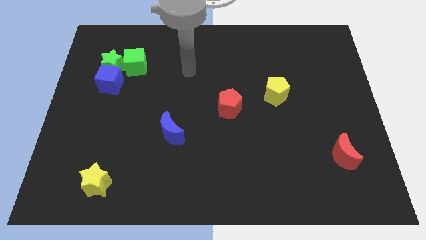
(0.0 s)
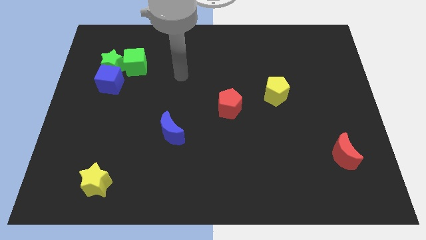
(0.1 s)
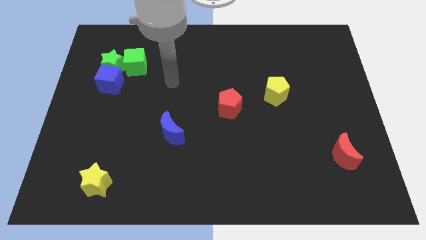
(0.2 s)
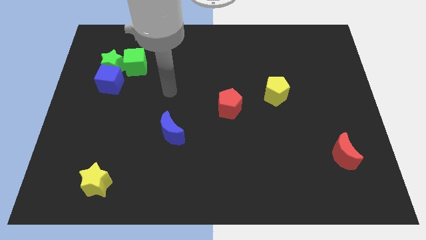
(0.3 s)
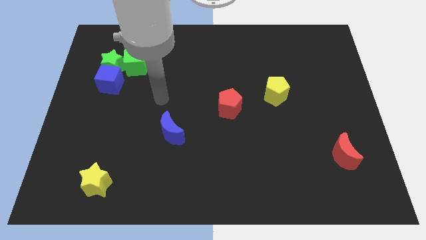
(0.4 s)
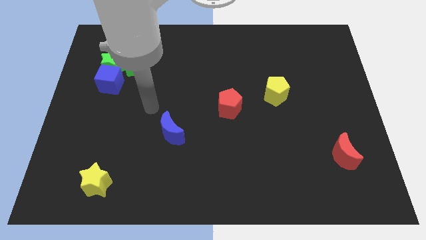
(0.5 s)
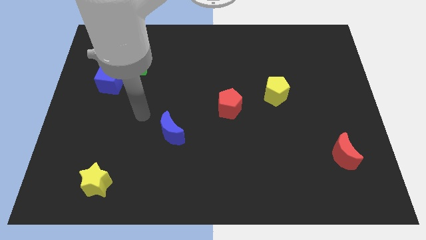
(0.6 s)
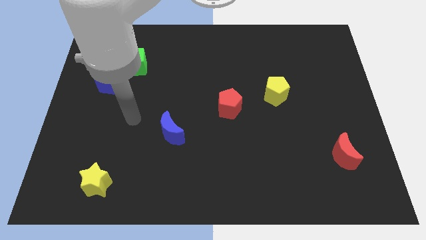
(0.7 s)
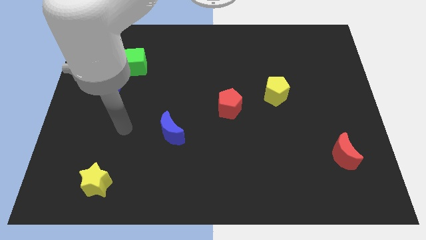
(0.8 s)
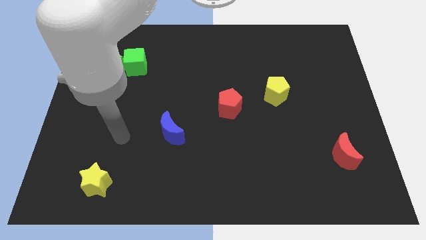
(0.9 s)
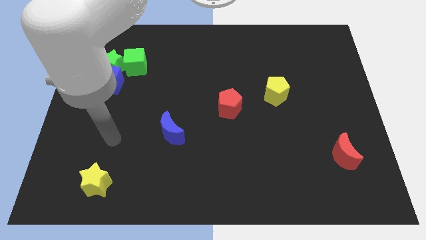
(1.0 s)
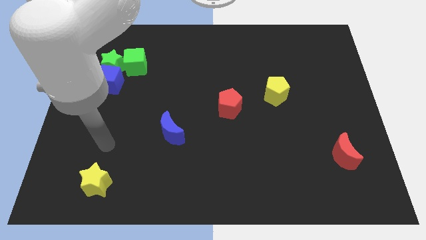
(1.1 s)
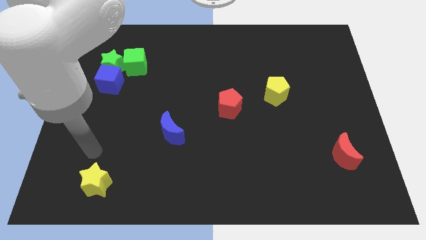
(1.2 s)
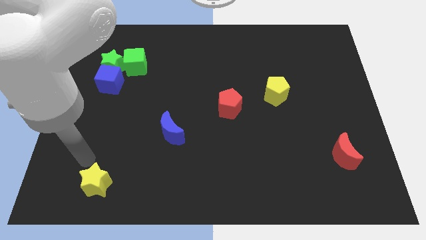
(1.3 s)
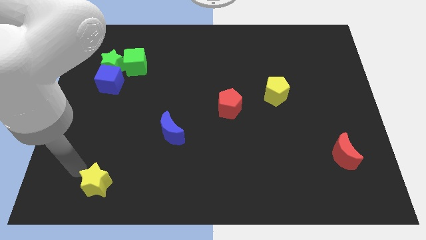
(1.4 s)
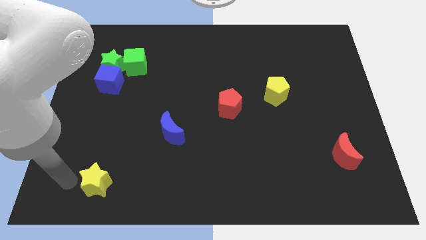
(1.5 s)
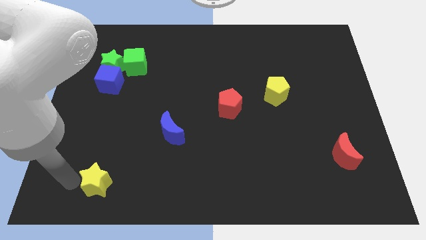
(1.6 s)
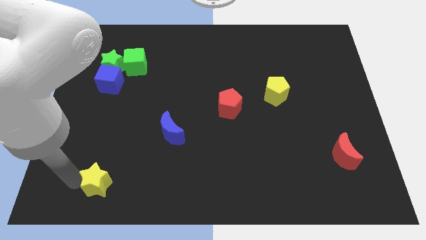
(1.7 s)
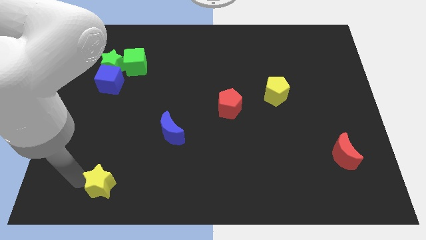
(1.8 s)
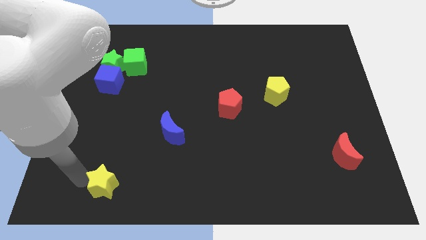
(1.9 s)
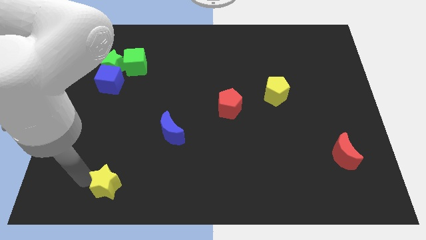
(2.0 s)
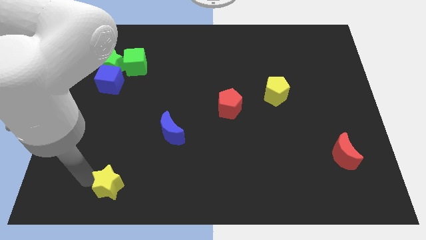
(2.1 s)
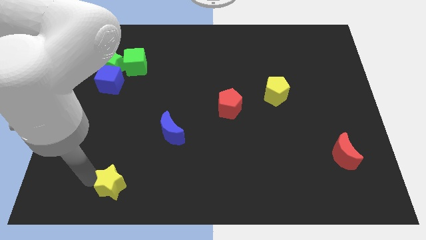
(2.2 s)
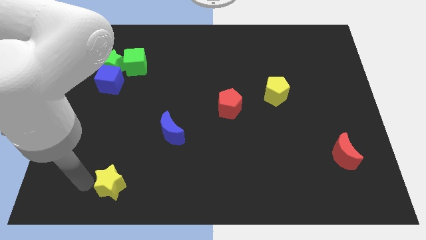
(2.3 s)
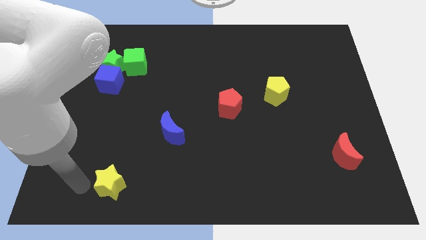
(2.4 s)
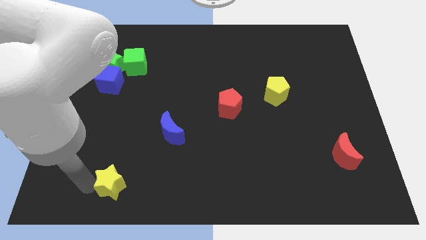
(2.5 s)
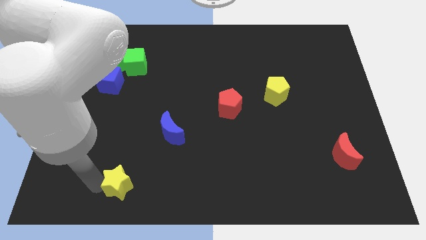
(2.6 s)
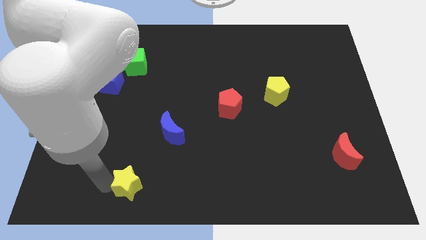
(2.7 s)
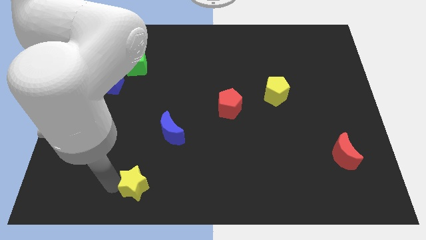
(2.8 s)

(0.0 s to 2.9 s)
slightly slide the yellow star right

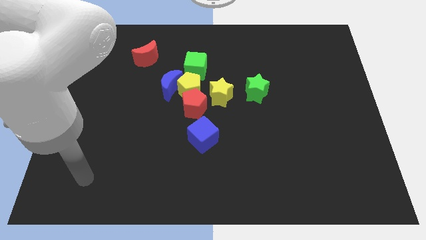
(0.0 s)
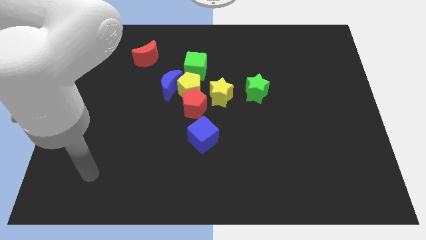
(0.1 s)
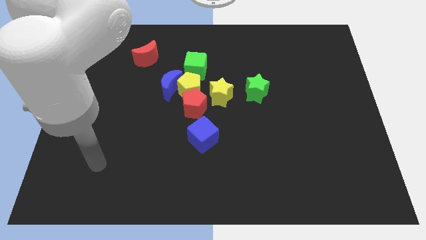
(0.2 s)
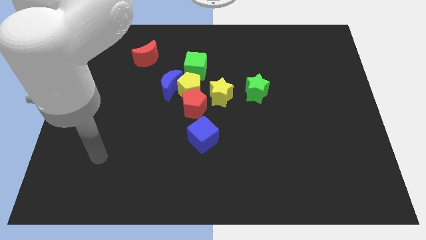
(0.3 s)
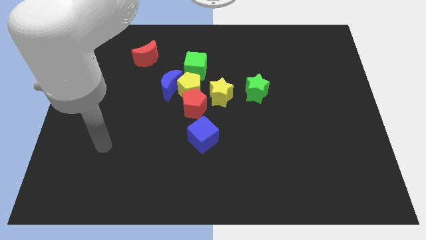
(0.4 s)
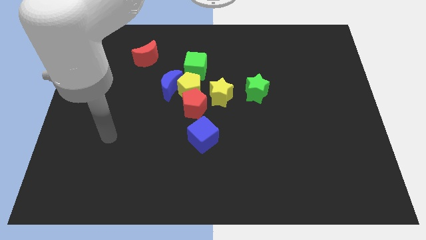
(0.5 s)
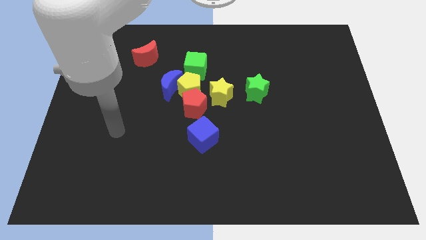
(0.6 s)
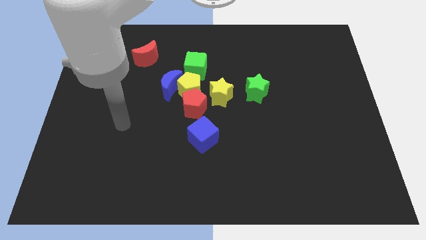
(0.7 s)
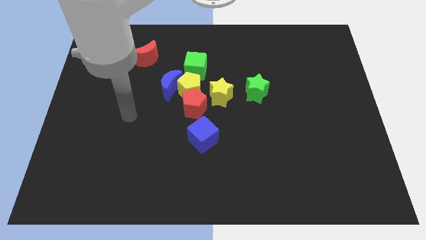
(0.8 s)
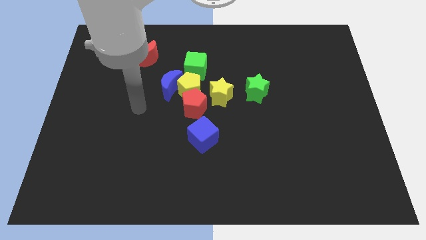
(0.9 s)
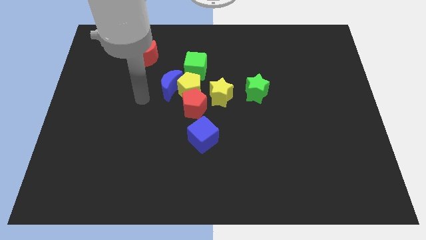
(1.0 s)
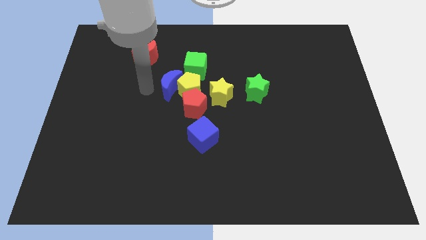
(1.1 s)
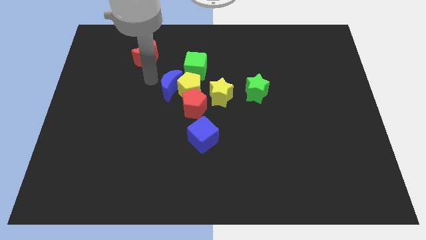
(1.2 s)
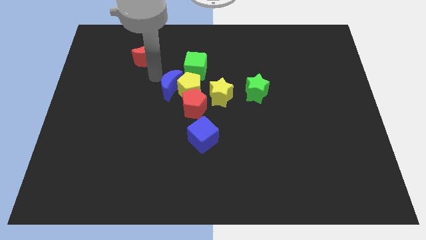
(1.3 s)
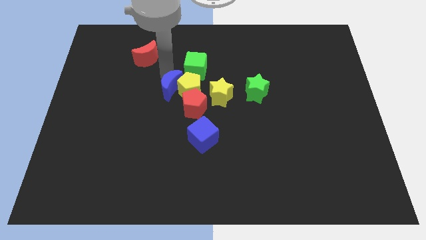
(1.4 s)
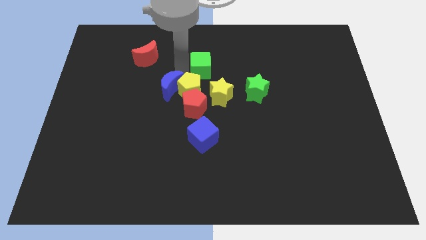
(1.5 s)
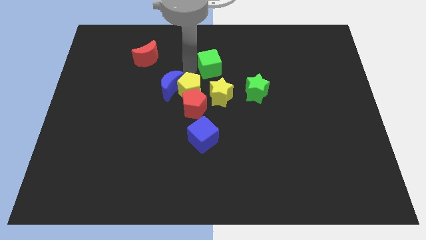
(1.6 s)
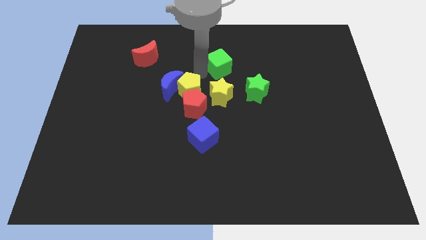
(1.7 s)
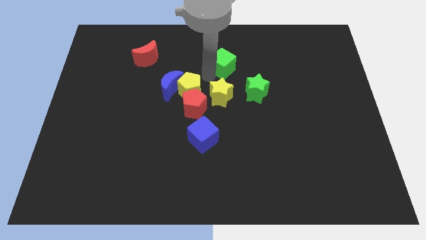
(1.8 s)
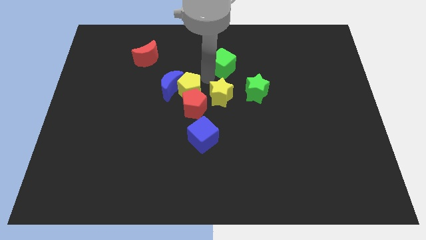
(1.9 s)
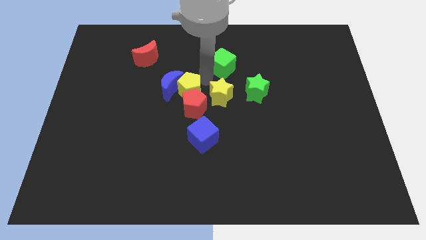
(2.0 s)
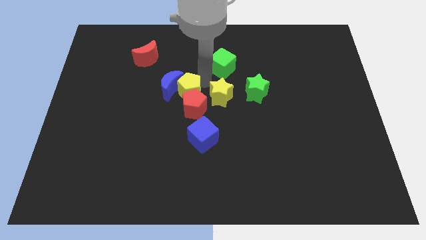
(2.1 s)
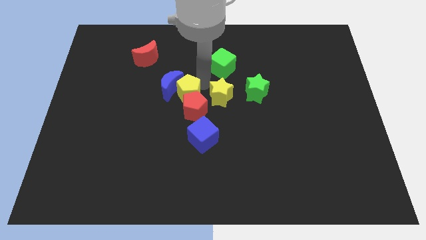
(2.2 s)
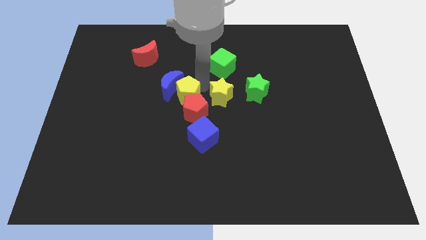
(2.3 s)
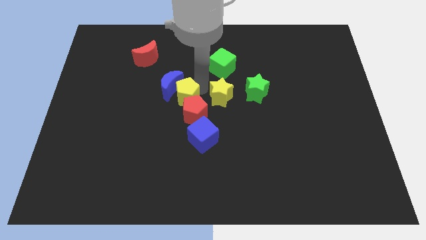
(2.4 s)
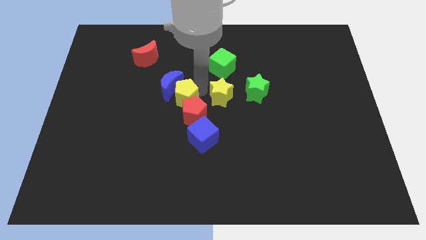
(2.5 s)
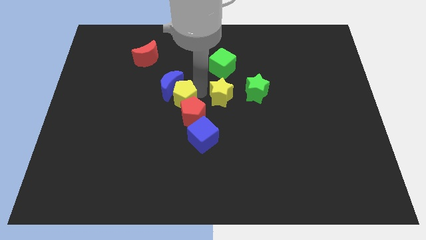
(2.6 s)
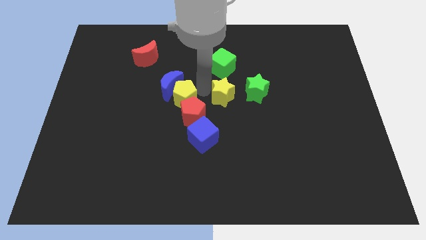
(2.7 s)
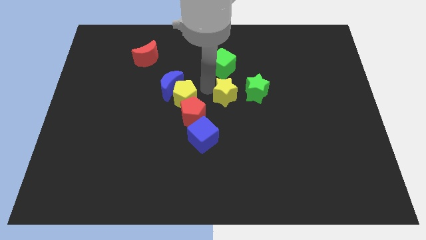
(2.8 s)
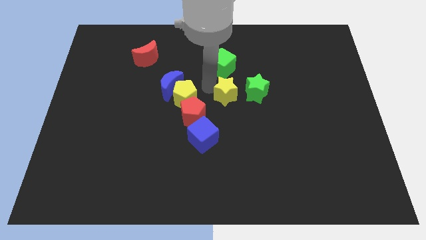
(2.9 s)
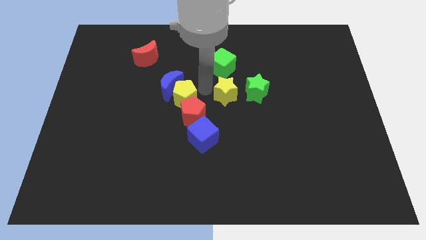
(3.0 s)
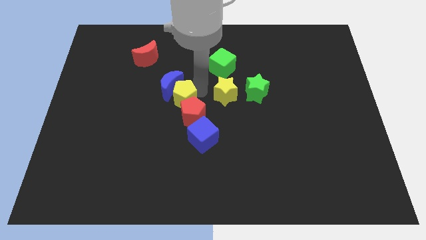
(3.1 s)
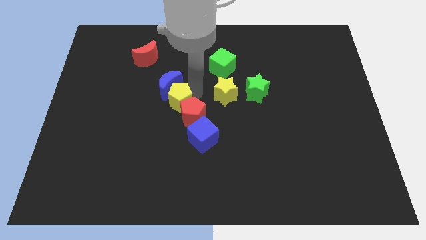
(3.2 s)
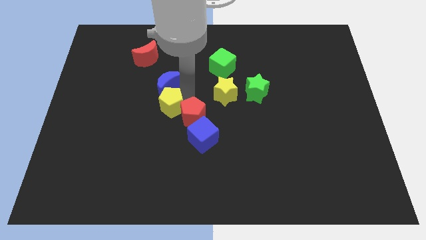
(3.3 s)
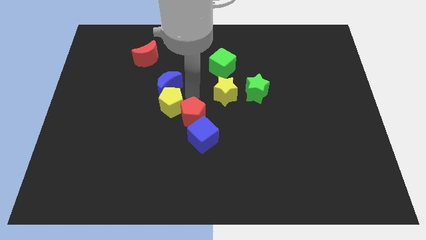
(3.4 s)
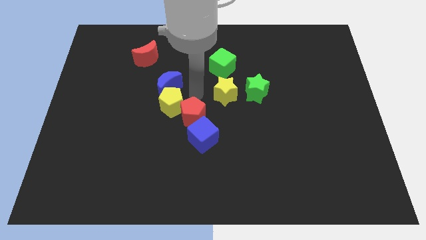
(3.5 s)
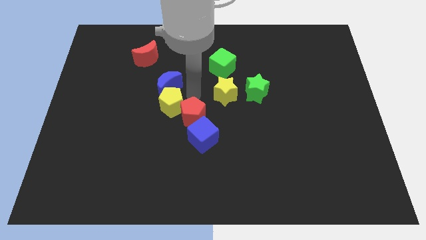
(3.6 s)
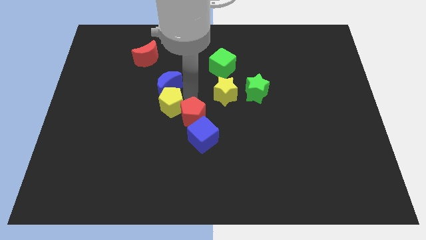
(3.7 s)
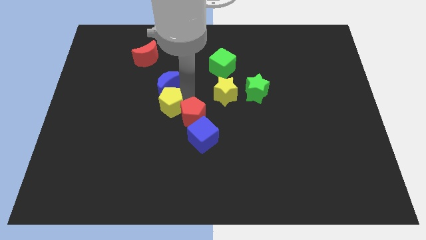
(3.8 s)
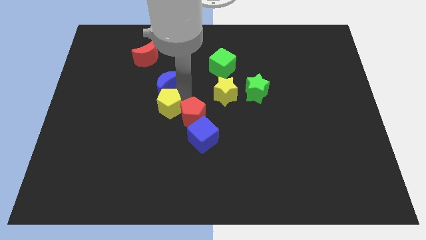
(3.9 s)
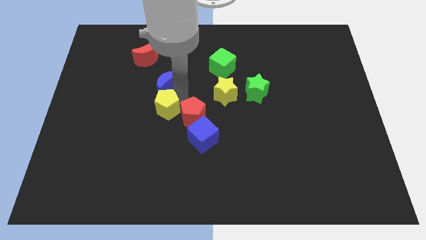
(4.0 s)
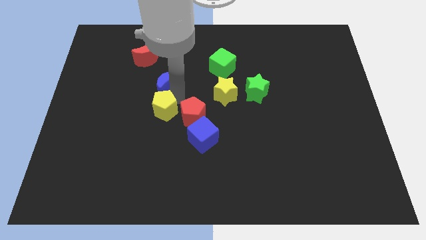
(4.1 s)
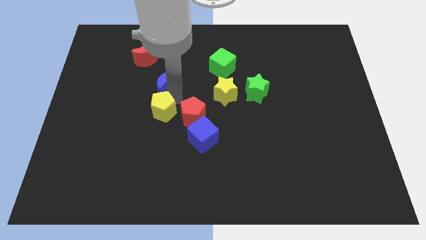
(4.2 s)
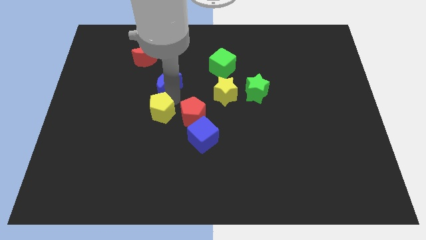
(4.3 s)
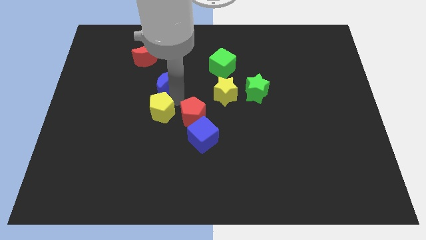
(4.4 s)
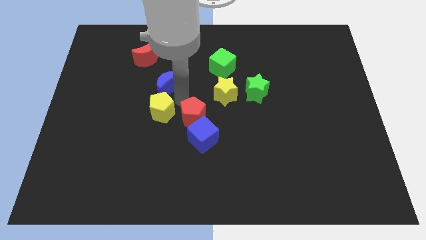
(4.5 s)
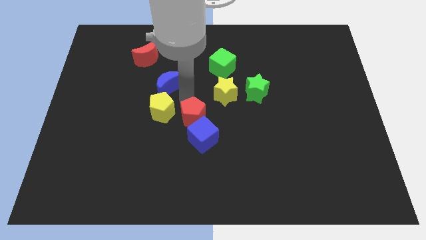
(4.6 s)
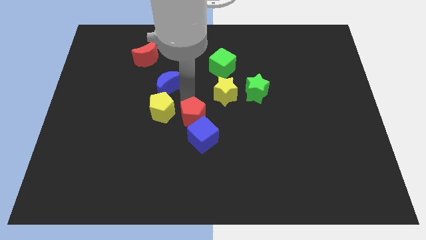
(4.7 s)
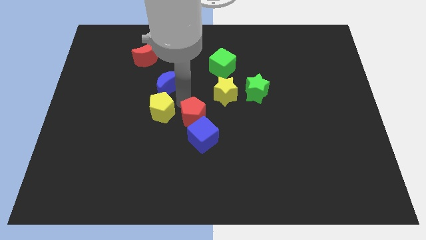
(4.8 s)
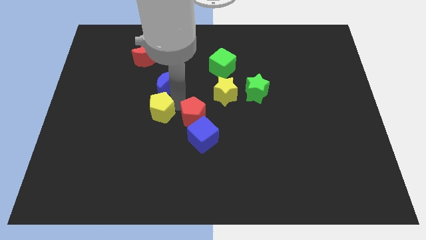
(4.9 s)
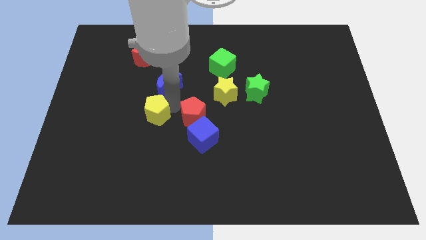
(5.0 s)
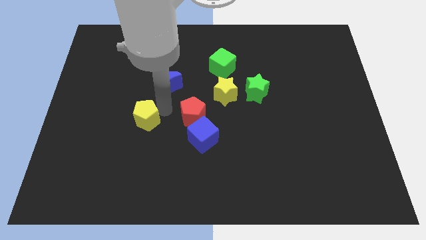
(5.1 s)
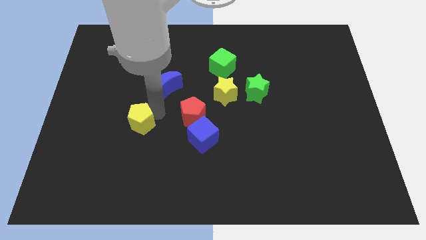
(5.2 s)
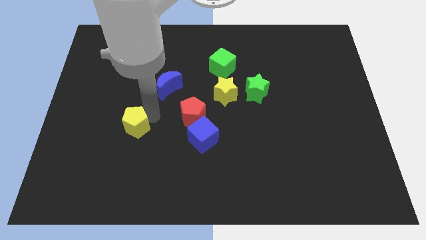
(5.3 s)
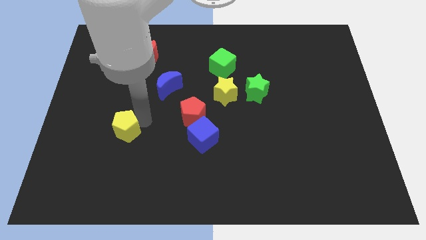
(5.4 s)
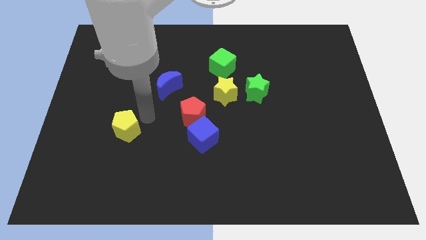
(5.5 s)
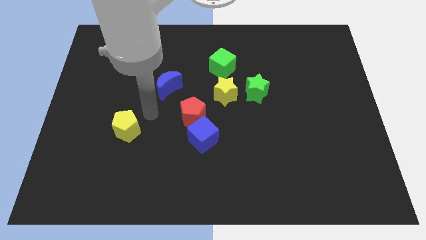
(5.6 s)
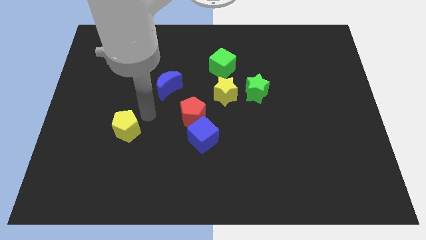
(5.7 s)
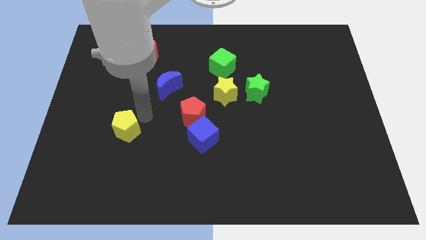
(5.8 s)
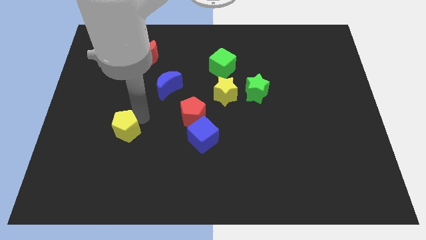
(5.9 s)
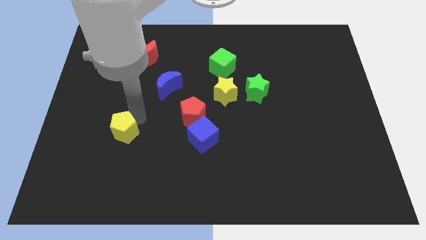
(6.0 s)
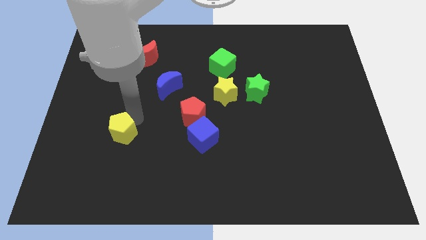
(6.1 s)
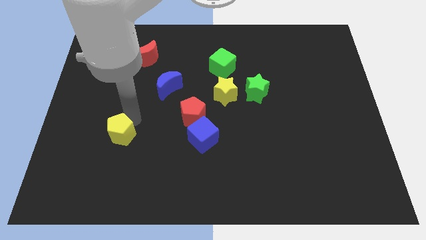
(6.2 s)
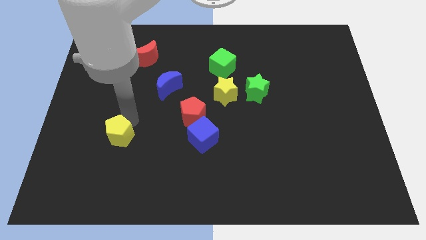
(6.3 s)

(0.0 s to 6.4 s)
slide the yellow pentagon down and left diagonally
